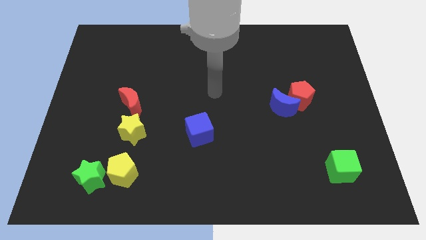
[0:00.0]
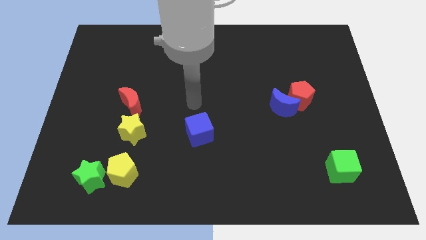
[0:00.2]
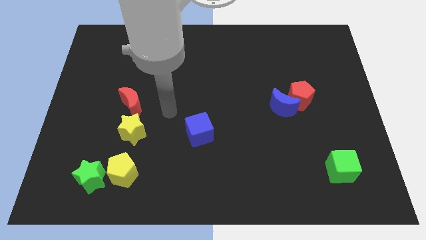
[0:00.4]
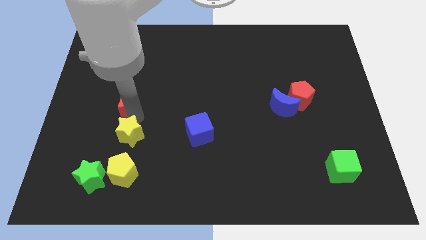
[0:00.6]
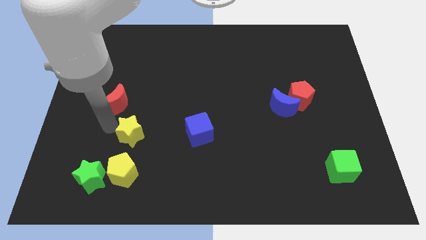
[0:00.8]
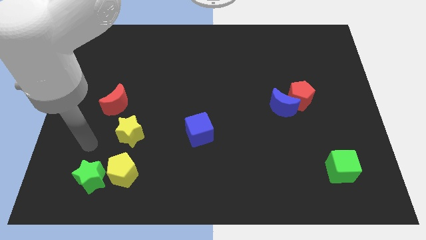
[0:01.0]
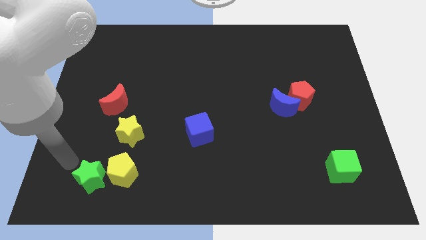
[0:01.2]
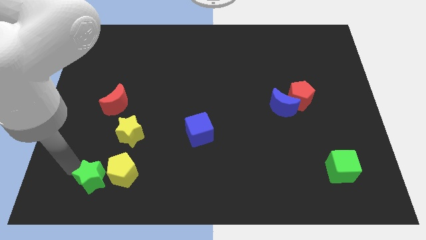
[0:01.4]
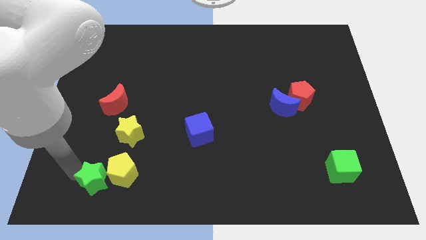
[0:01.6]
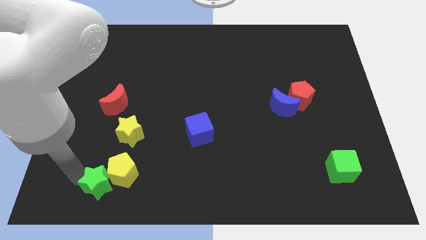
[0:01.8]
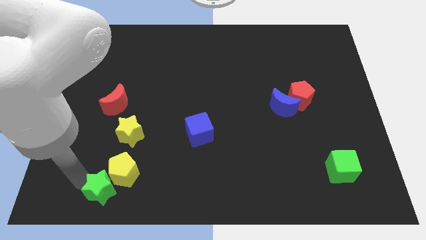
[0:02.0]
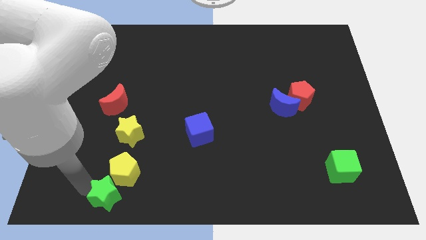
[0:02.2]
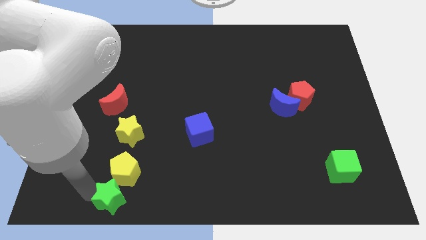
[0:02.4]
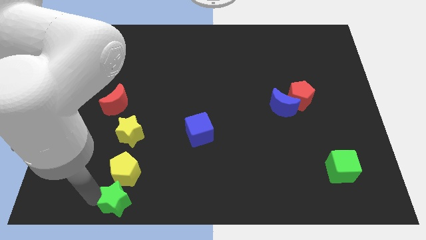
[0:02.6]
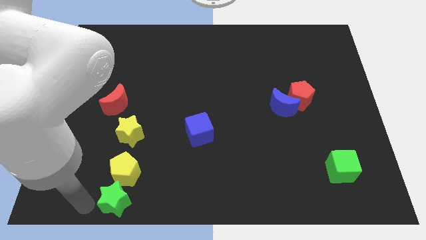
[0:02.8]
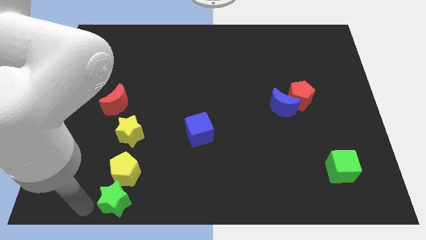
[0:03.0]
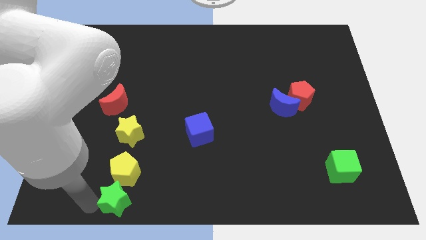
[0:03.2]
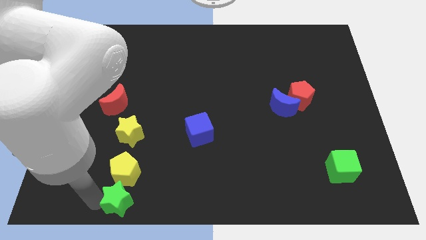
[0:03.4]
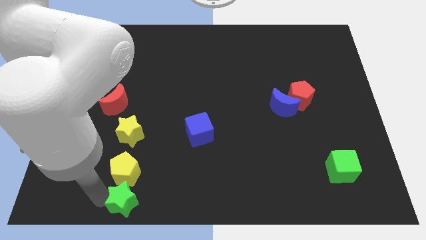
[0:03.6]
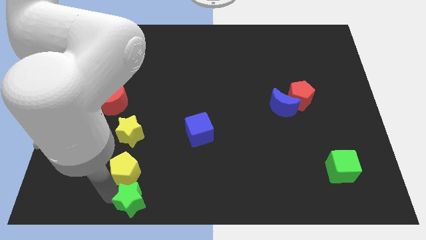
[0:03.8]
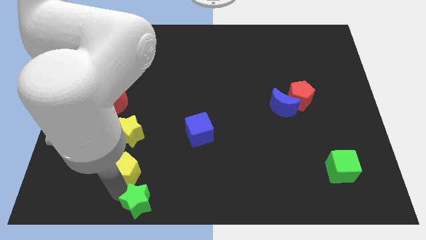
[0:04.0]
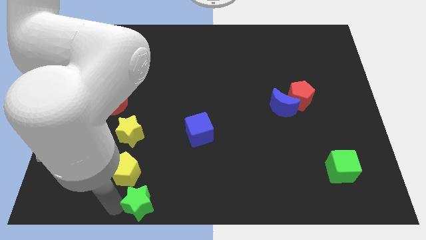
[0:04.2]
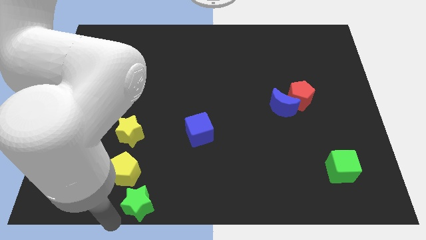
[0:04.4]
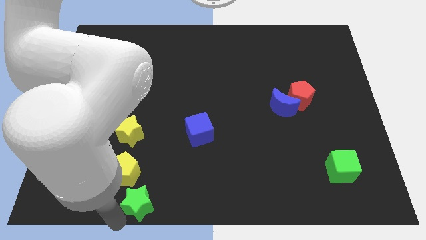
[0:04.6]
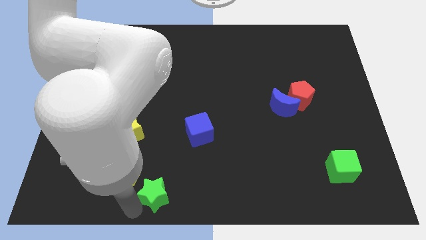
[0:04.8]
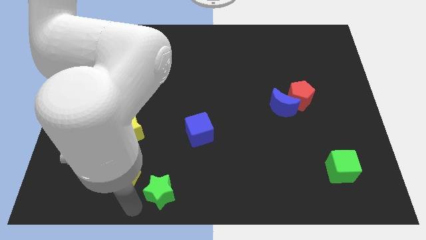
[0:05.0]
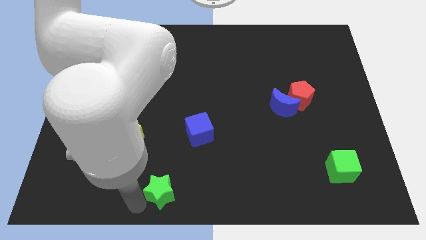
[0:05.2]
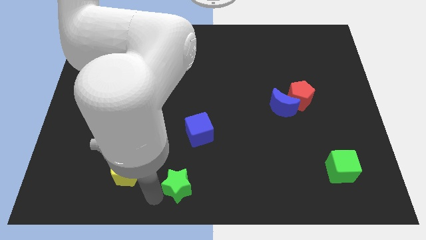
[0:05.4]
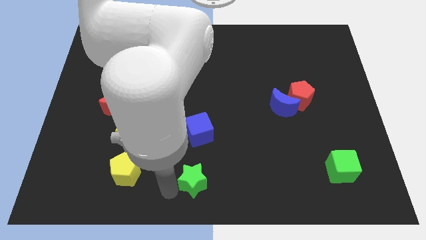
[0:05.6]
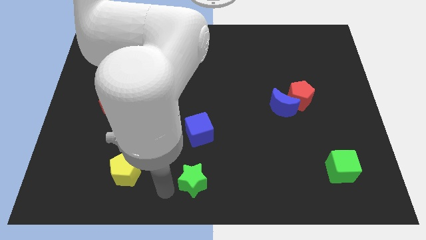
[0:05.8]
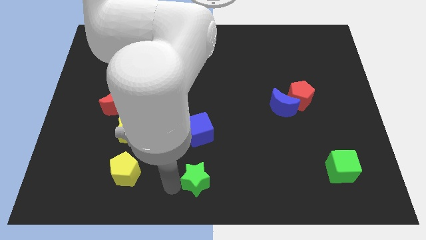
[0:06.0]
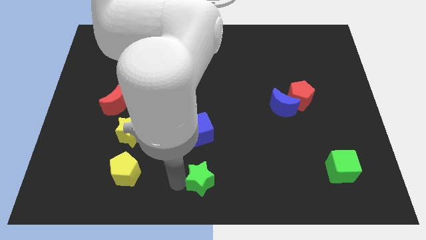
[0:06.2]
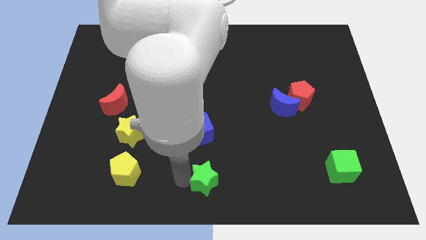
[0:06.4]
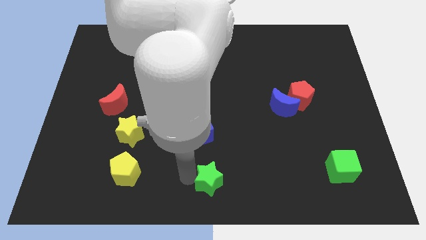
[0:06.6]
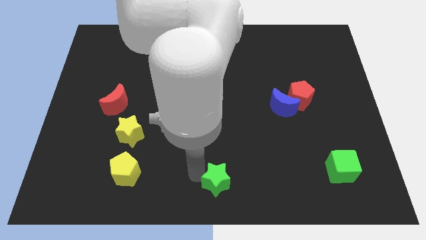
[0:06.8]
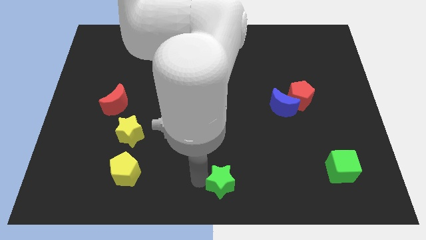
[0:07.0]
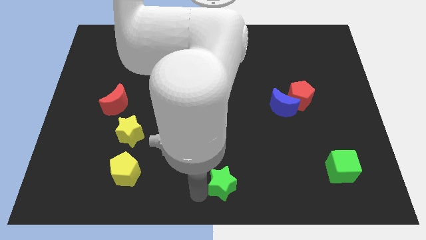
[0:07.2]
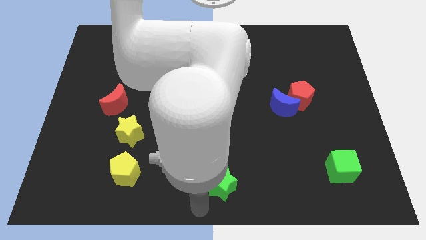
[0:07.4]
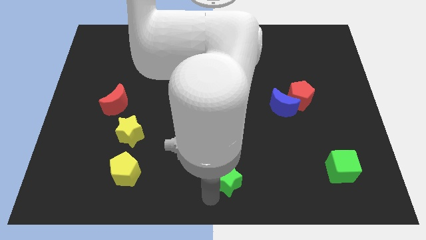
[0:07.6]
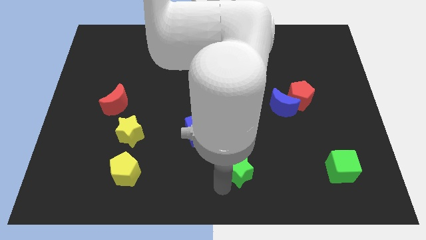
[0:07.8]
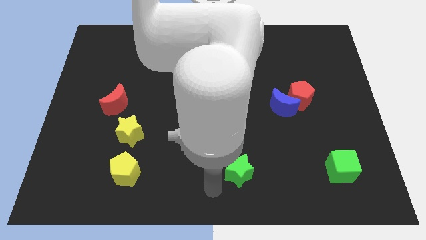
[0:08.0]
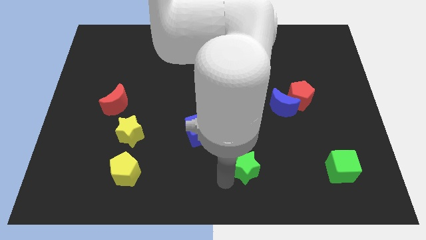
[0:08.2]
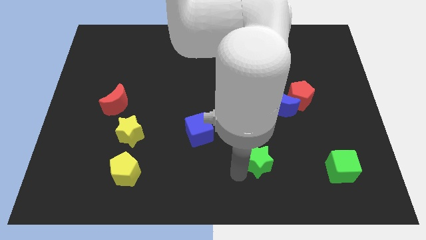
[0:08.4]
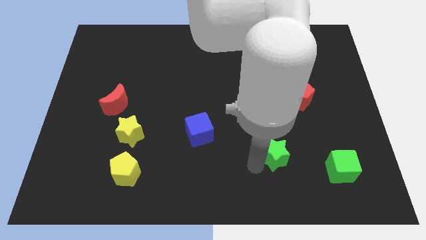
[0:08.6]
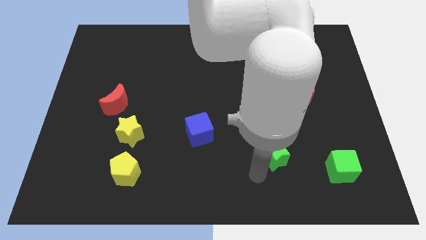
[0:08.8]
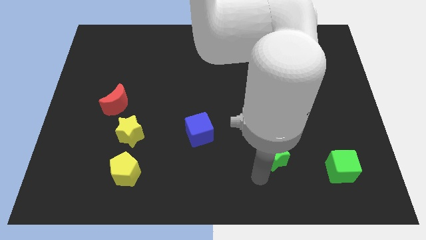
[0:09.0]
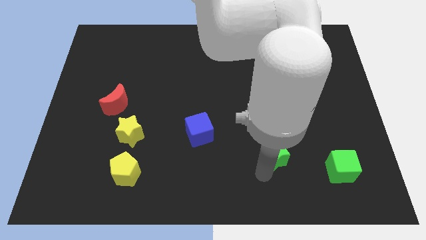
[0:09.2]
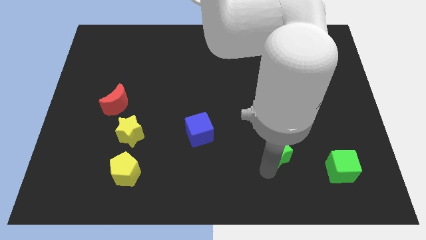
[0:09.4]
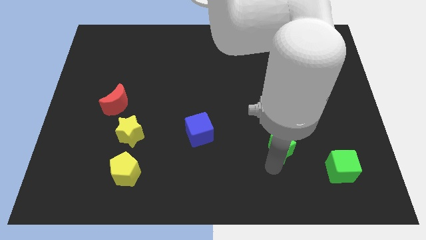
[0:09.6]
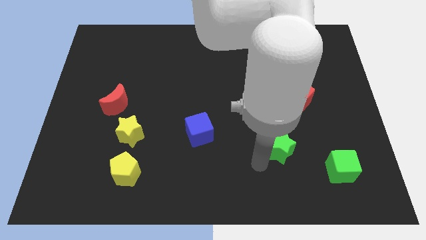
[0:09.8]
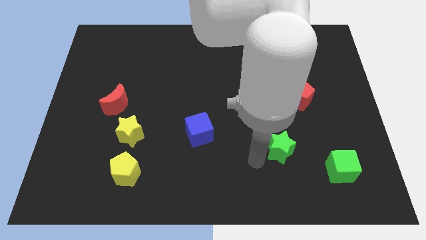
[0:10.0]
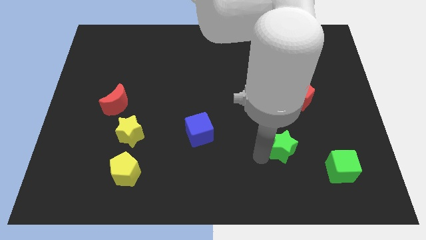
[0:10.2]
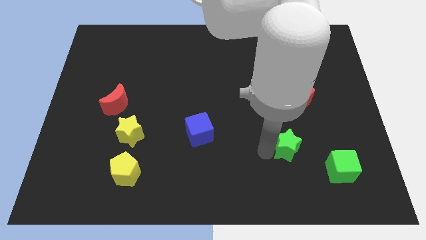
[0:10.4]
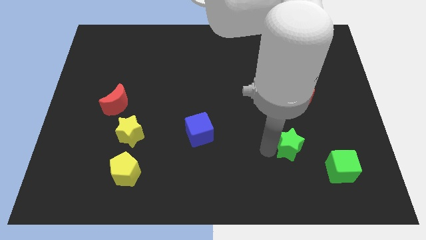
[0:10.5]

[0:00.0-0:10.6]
put the green star below the red pentagon

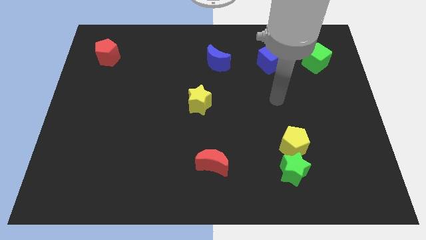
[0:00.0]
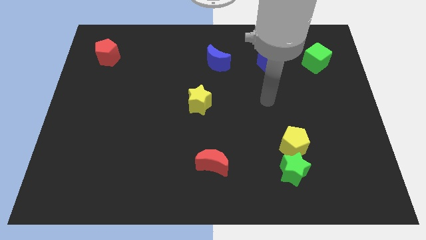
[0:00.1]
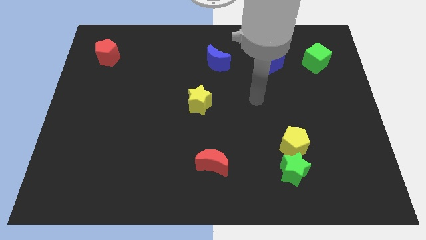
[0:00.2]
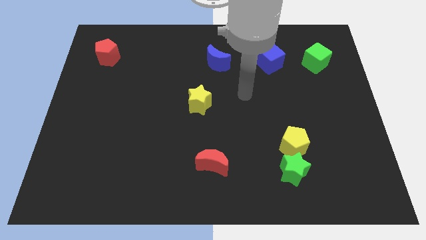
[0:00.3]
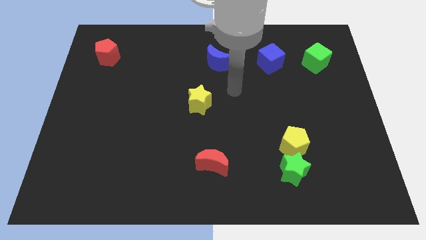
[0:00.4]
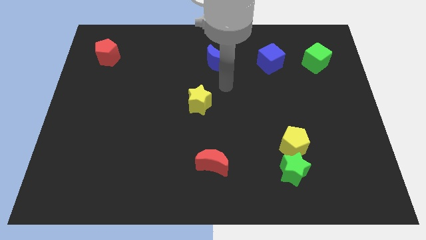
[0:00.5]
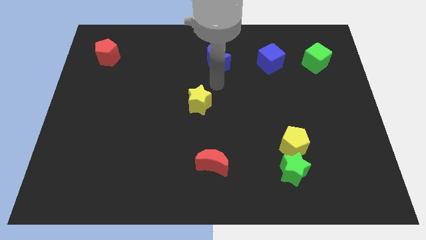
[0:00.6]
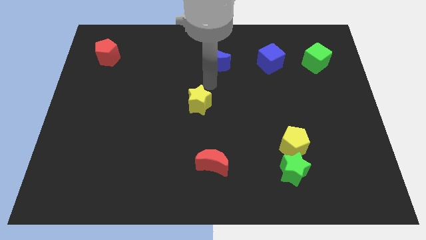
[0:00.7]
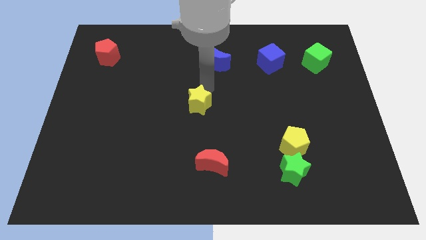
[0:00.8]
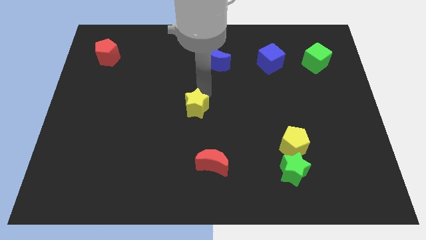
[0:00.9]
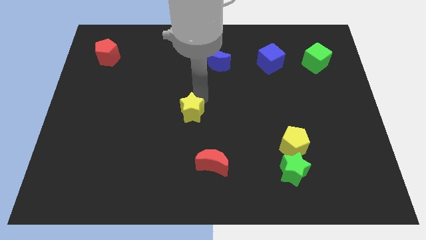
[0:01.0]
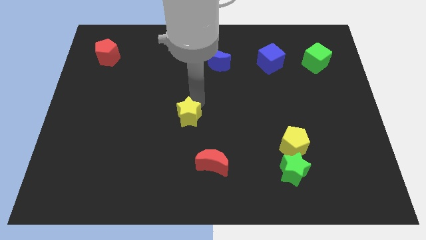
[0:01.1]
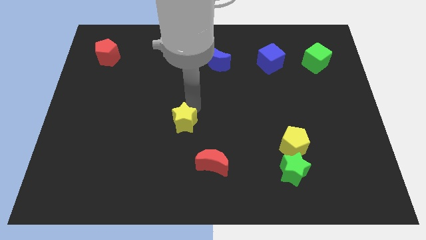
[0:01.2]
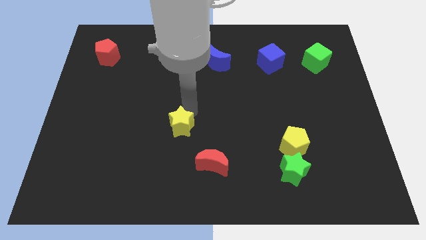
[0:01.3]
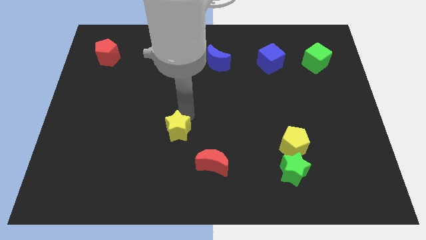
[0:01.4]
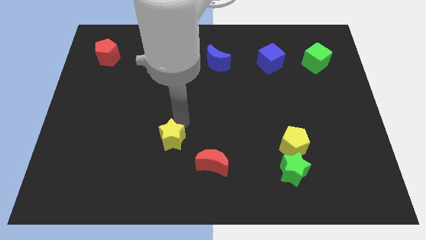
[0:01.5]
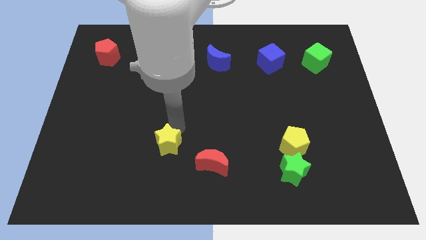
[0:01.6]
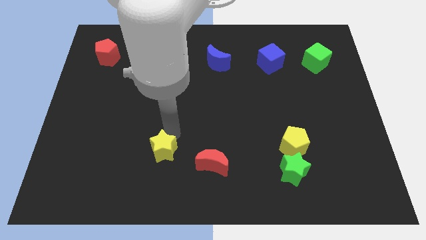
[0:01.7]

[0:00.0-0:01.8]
slide the yellow star left of the red moon
